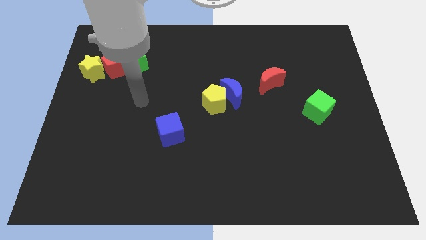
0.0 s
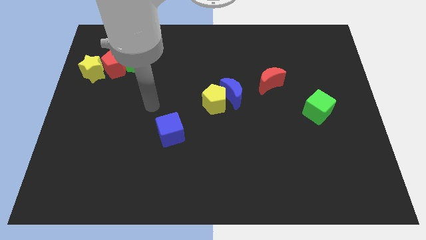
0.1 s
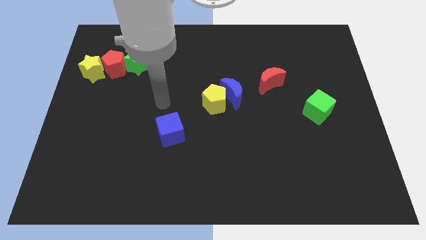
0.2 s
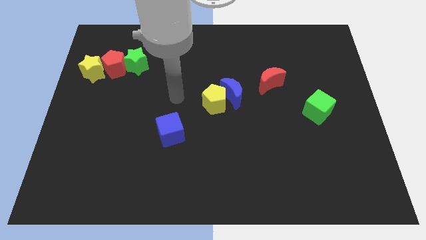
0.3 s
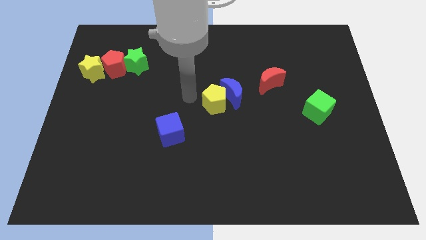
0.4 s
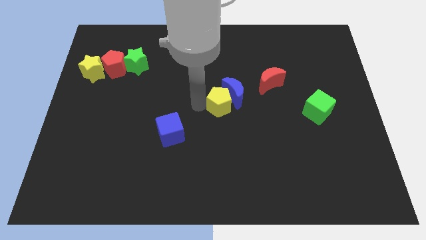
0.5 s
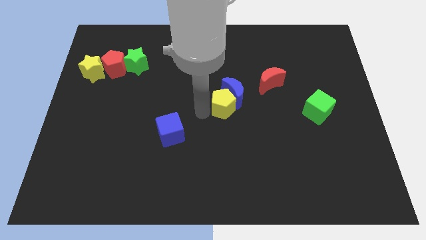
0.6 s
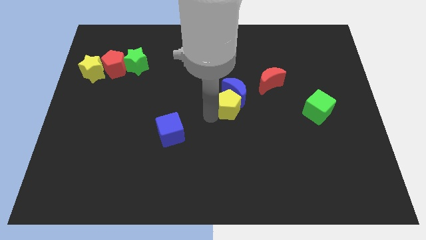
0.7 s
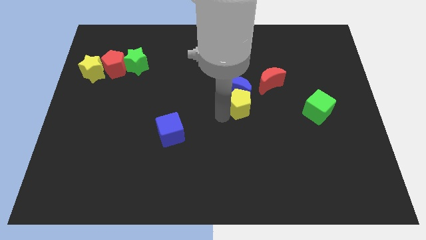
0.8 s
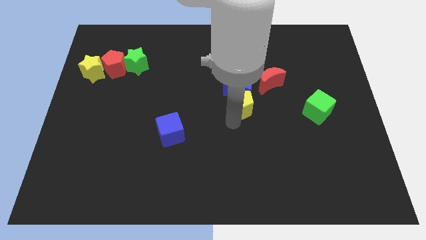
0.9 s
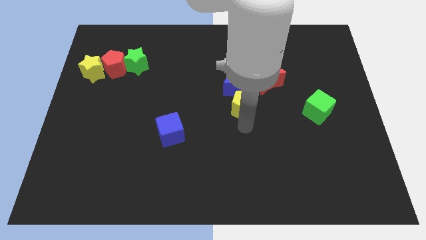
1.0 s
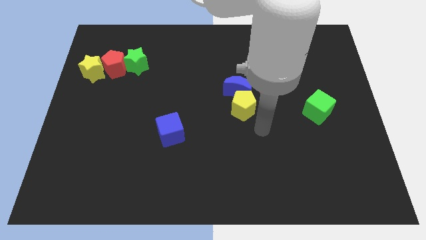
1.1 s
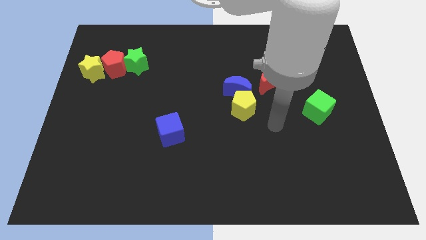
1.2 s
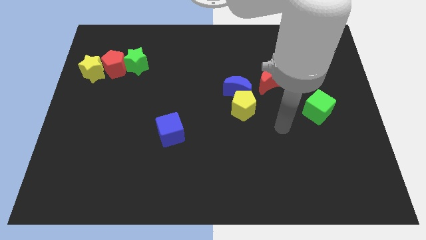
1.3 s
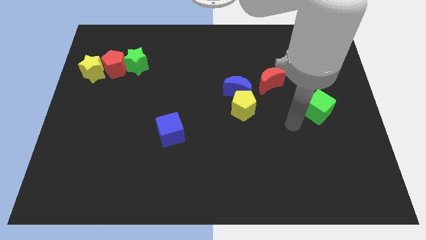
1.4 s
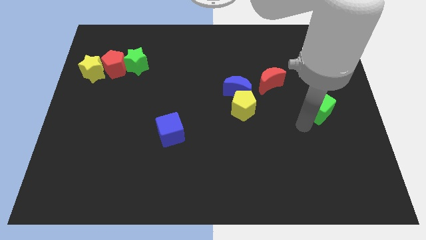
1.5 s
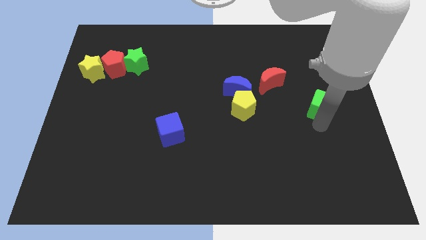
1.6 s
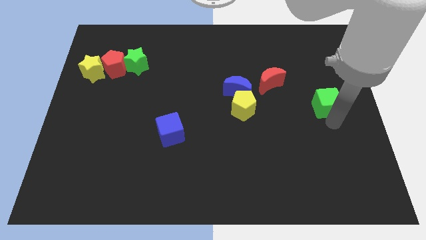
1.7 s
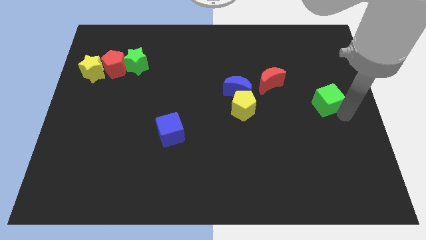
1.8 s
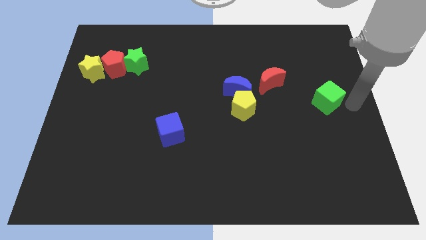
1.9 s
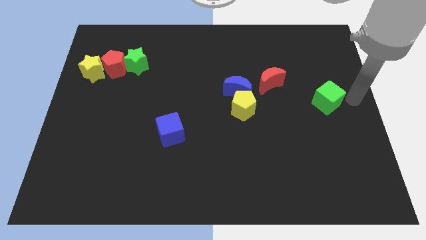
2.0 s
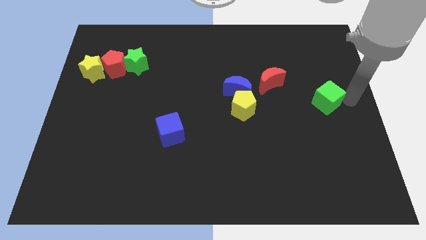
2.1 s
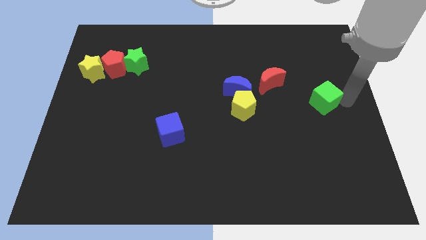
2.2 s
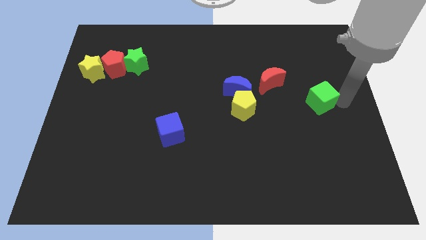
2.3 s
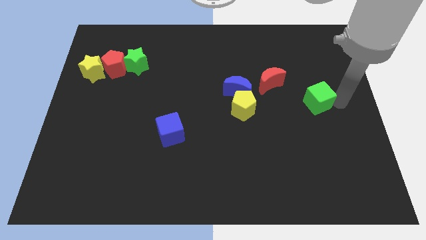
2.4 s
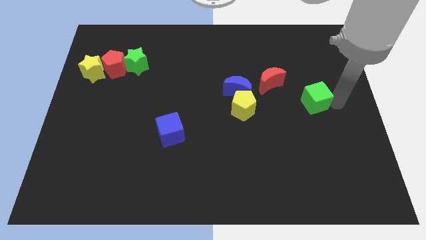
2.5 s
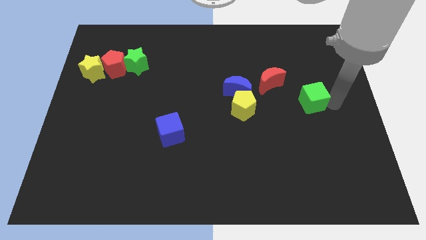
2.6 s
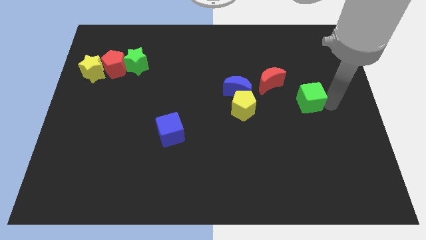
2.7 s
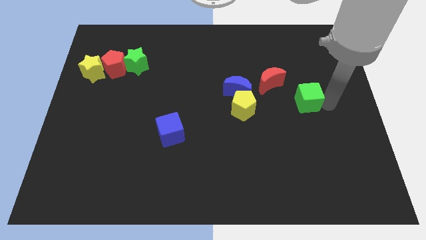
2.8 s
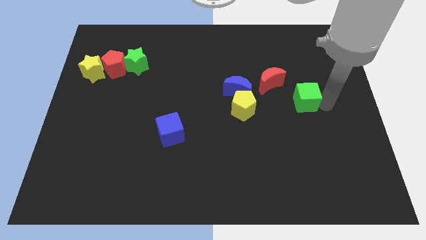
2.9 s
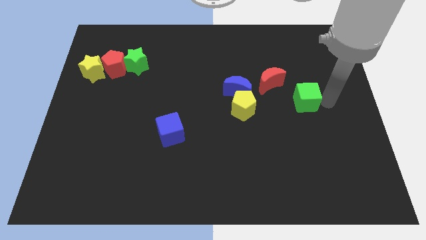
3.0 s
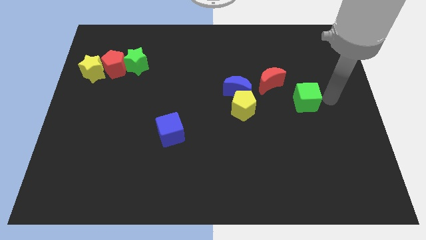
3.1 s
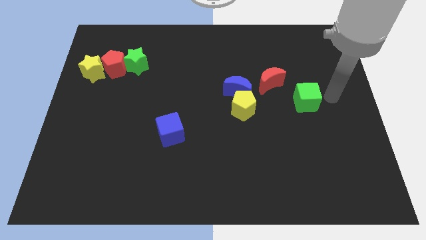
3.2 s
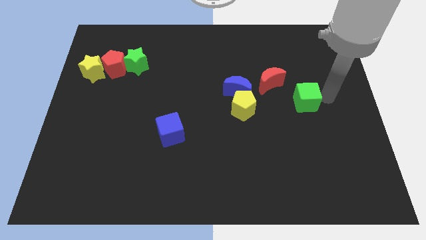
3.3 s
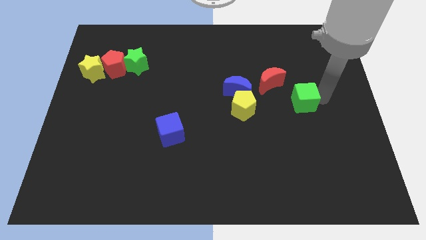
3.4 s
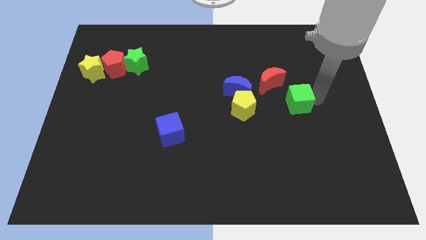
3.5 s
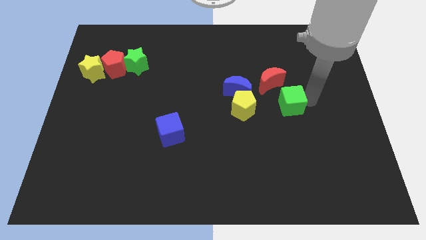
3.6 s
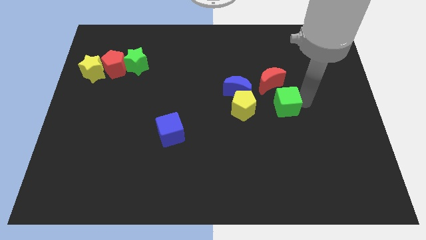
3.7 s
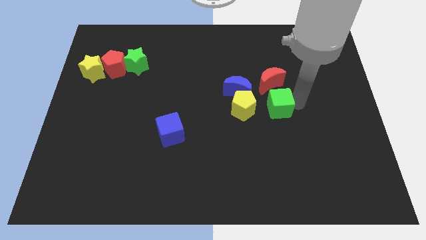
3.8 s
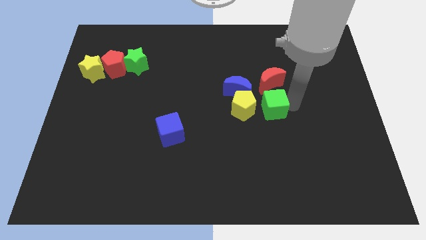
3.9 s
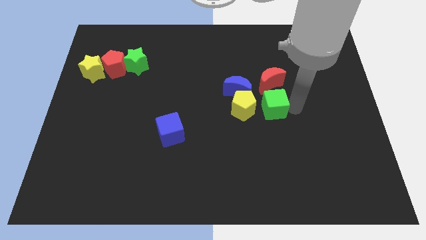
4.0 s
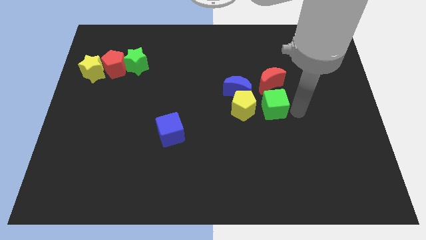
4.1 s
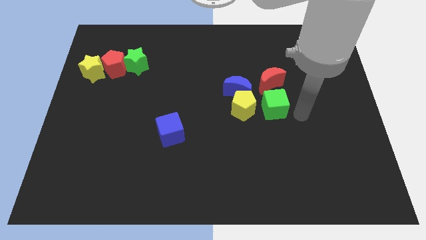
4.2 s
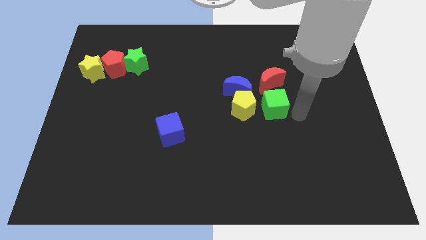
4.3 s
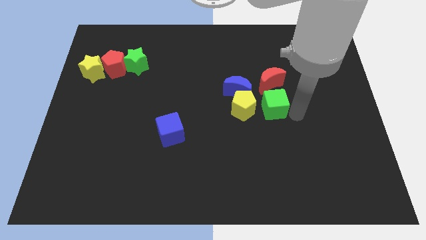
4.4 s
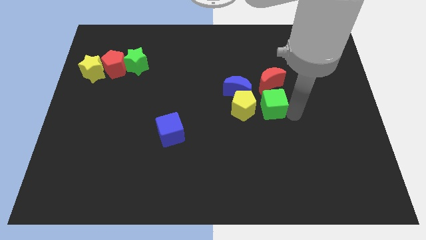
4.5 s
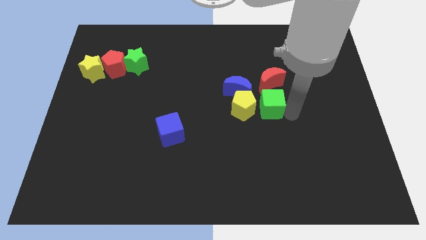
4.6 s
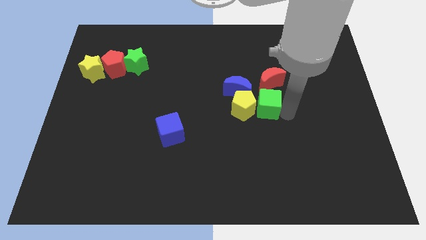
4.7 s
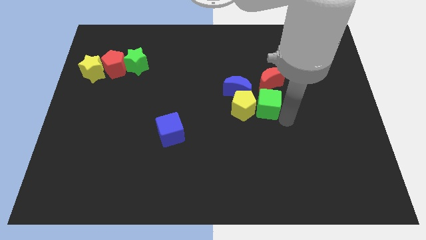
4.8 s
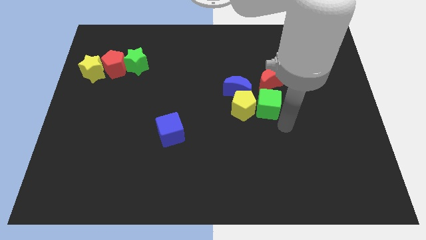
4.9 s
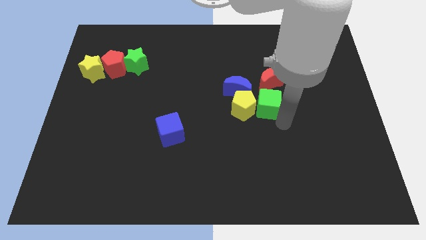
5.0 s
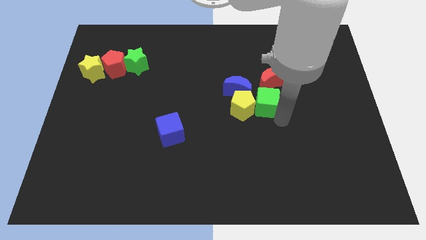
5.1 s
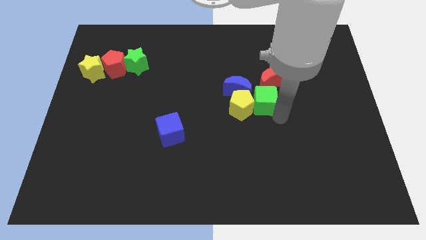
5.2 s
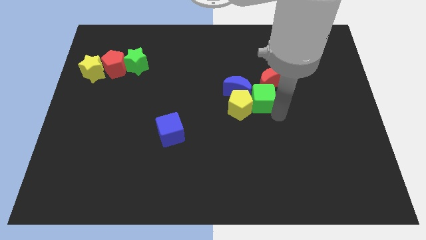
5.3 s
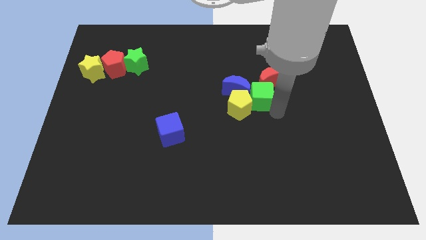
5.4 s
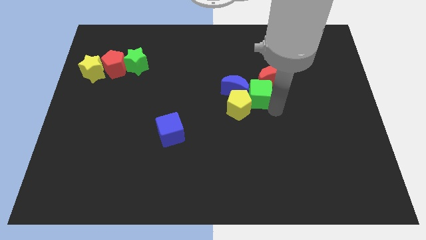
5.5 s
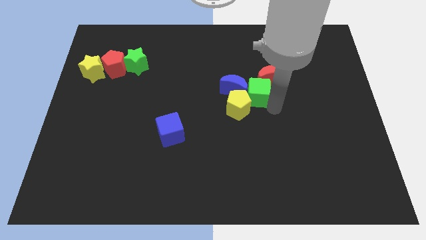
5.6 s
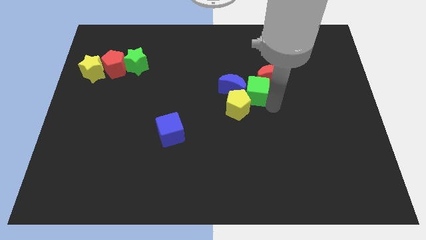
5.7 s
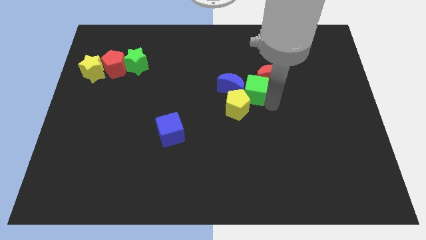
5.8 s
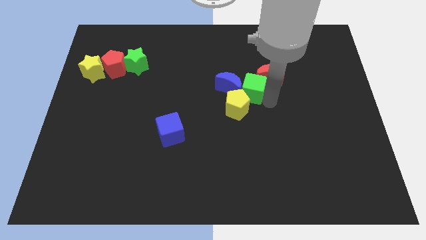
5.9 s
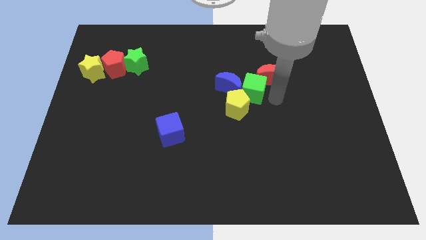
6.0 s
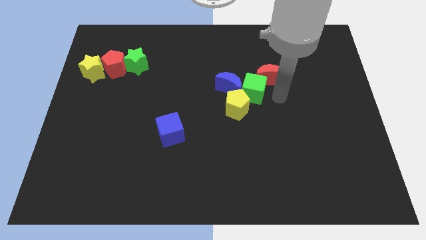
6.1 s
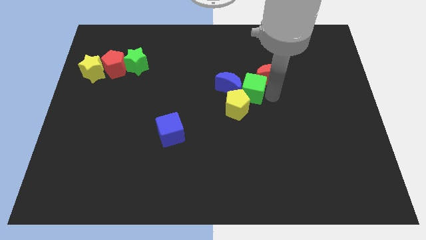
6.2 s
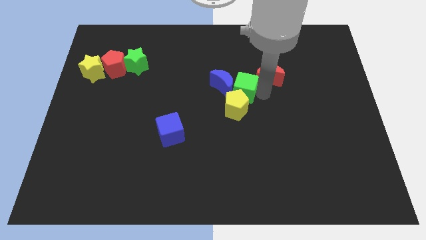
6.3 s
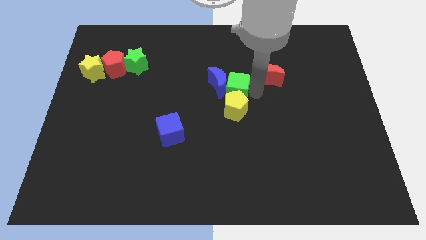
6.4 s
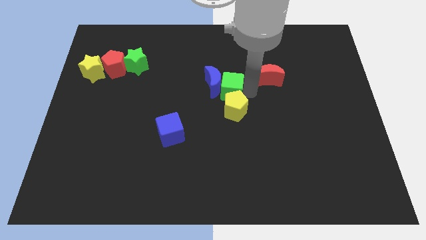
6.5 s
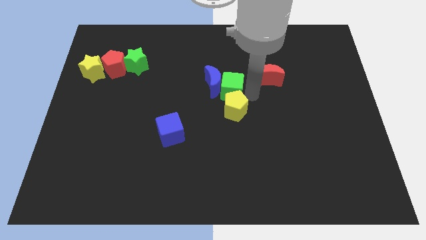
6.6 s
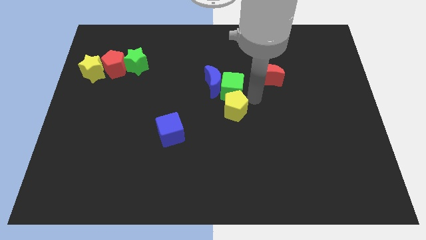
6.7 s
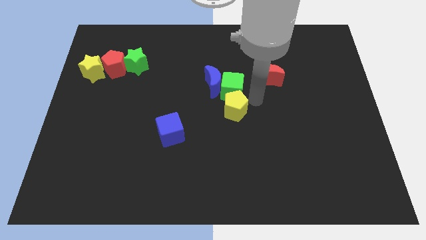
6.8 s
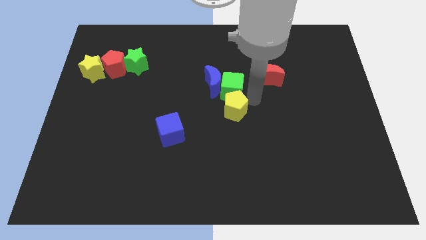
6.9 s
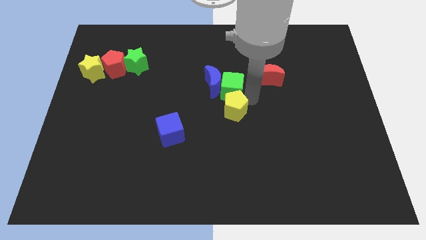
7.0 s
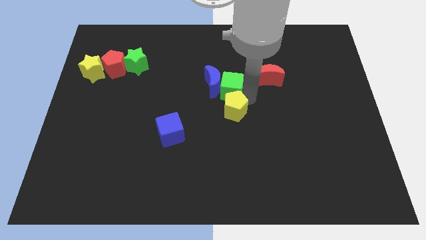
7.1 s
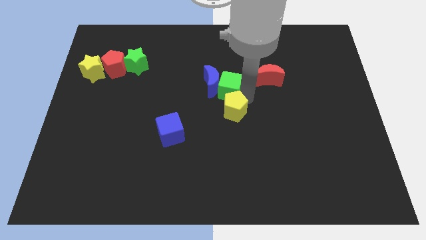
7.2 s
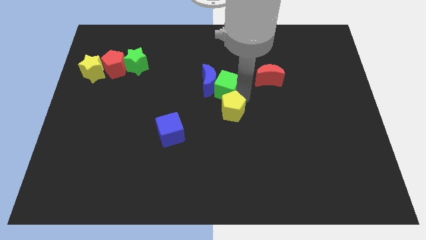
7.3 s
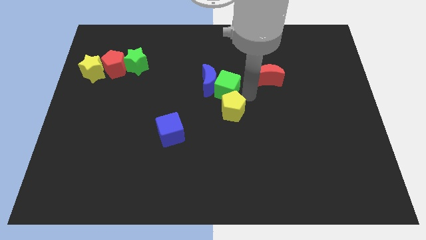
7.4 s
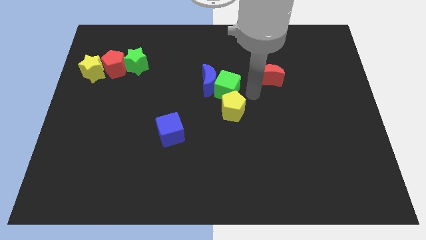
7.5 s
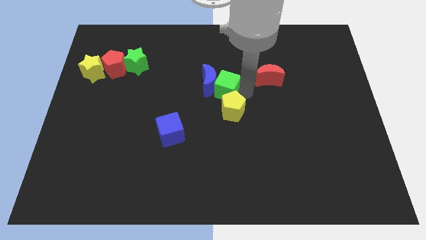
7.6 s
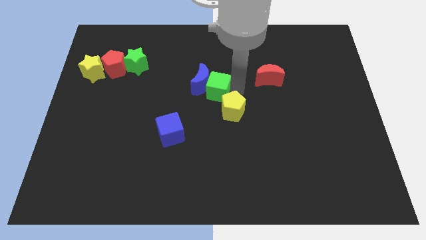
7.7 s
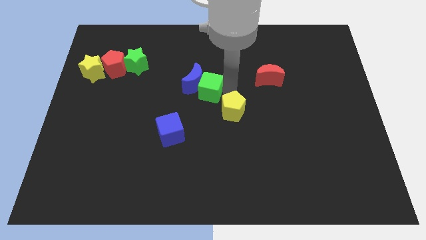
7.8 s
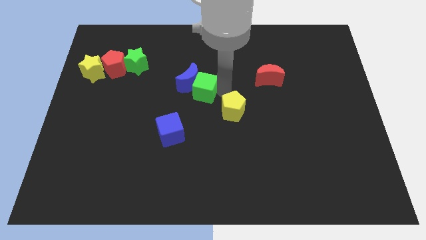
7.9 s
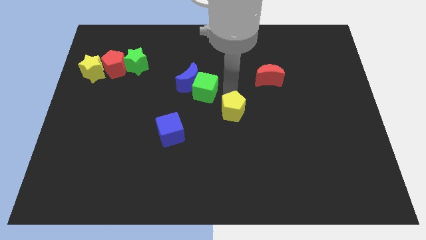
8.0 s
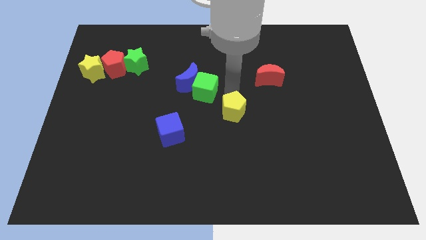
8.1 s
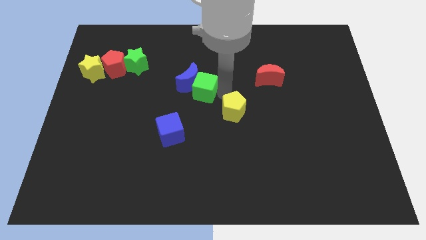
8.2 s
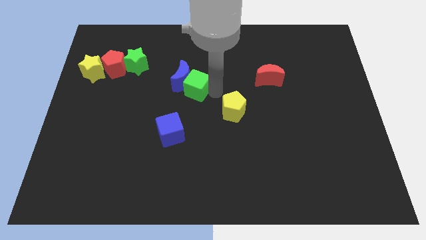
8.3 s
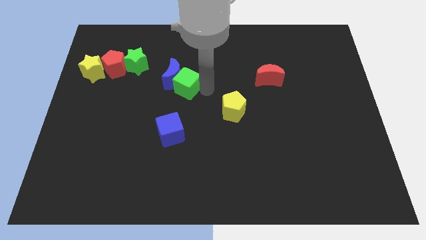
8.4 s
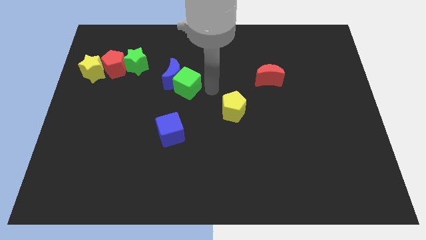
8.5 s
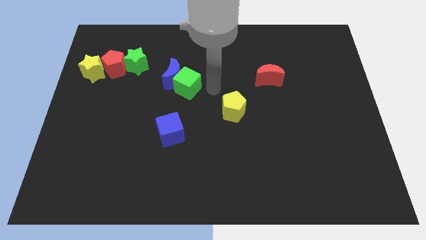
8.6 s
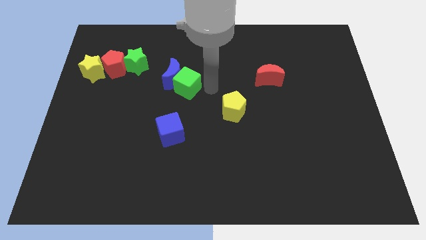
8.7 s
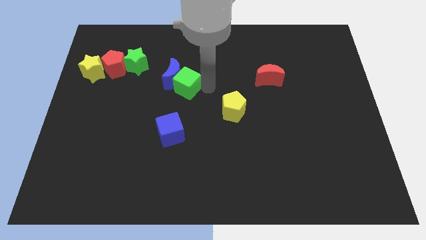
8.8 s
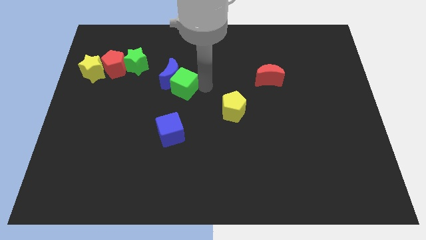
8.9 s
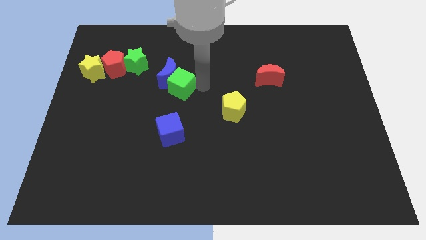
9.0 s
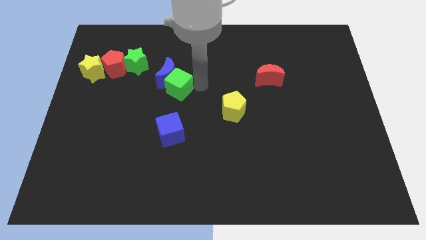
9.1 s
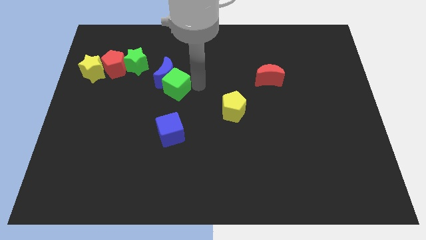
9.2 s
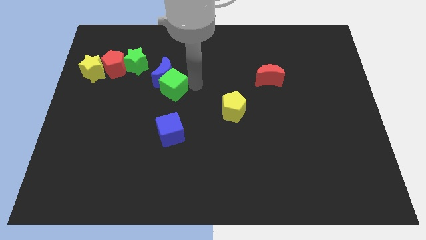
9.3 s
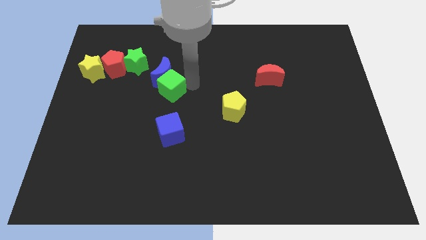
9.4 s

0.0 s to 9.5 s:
move the green cube to the bottom right of the green star
